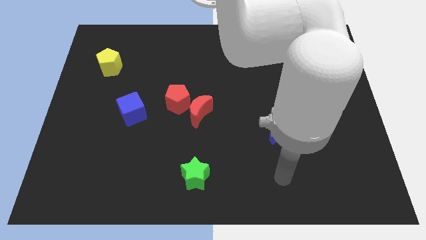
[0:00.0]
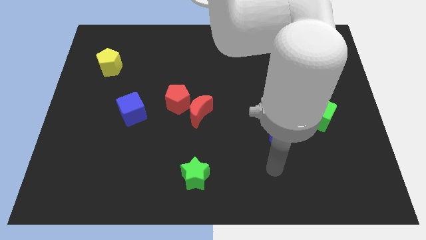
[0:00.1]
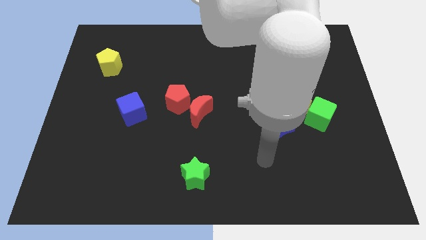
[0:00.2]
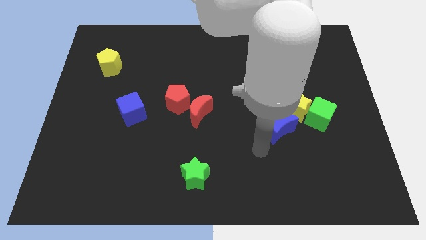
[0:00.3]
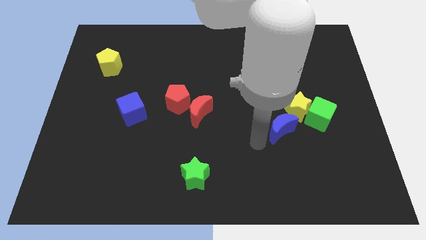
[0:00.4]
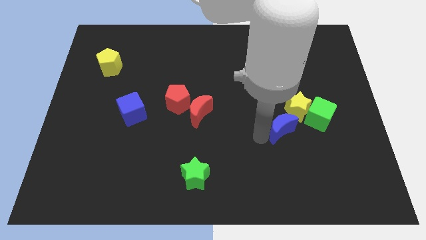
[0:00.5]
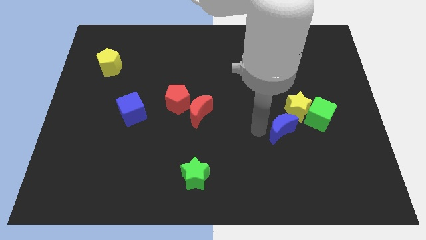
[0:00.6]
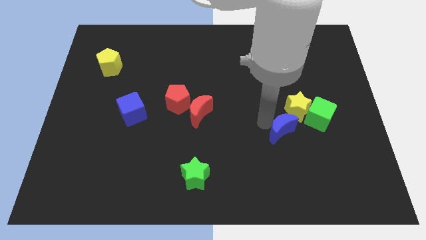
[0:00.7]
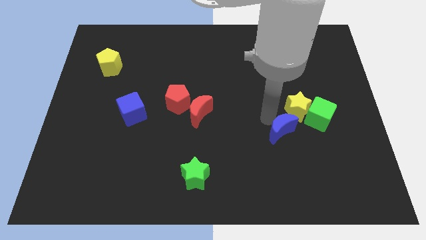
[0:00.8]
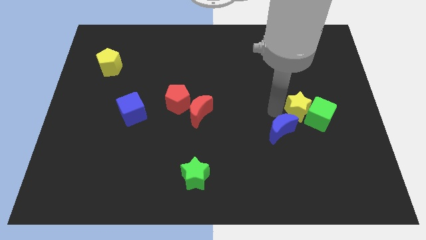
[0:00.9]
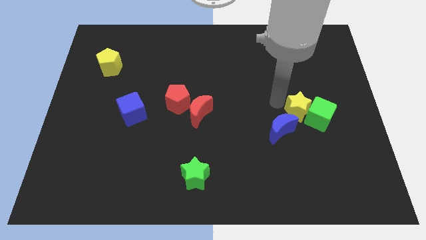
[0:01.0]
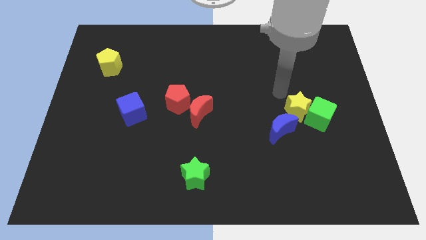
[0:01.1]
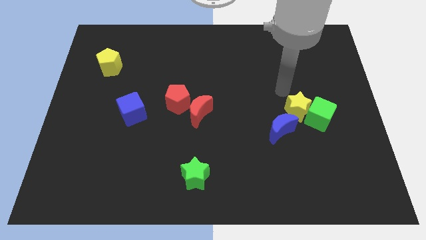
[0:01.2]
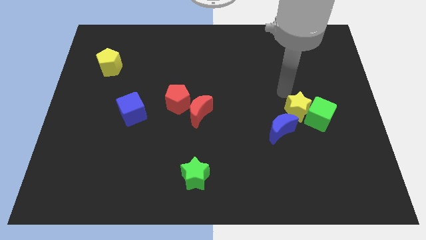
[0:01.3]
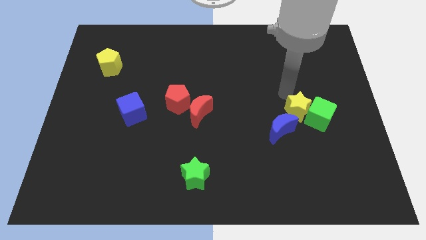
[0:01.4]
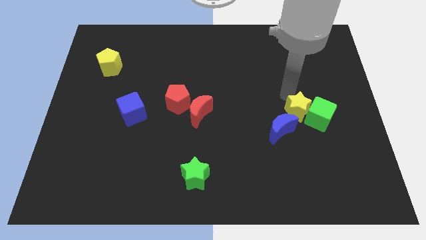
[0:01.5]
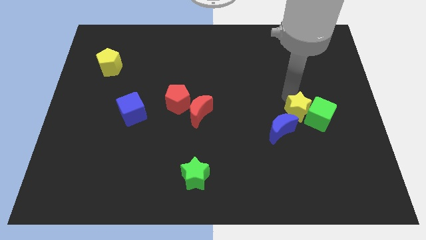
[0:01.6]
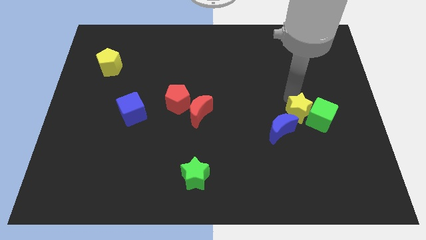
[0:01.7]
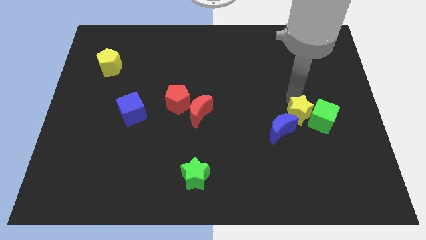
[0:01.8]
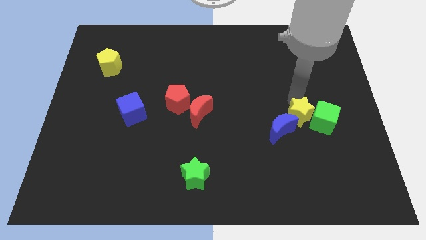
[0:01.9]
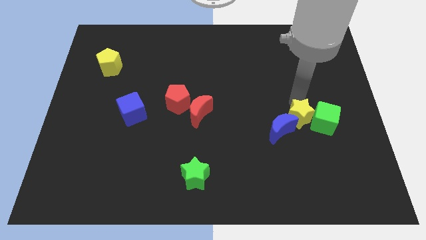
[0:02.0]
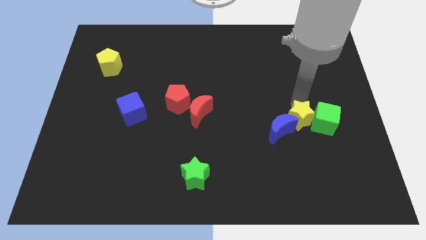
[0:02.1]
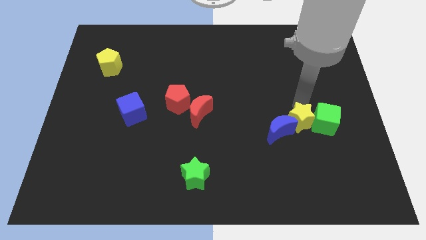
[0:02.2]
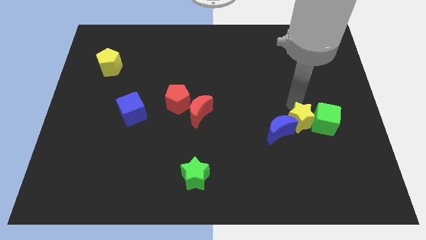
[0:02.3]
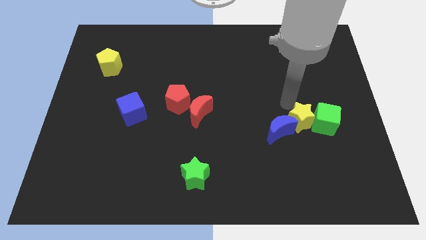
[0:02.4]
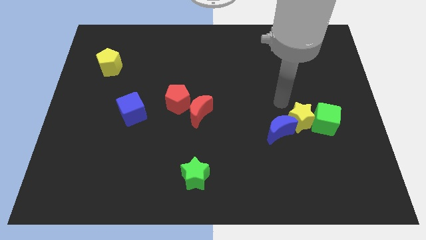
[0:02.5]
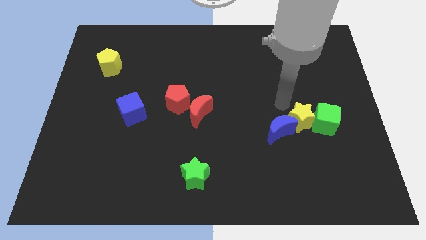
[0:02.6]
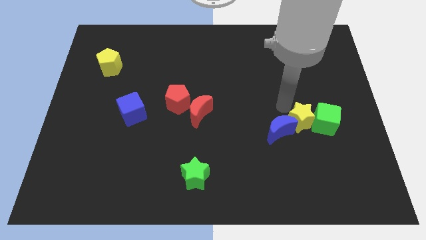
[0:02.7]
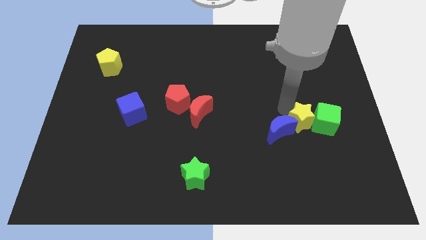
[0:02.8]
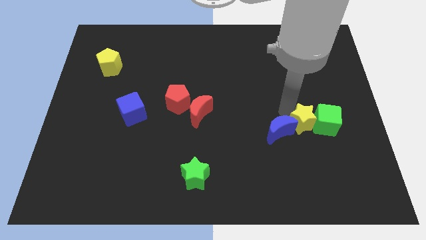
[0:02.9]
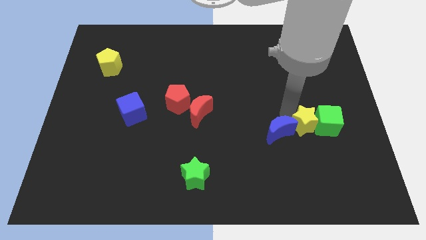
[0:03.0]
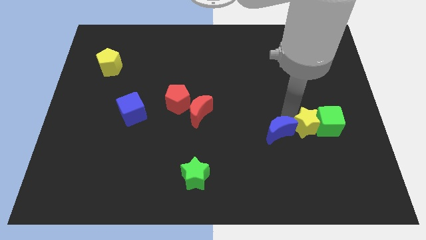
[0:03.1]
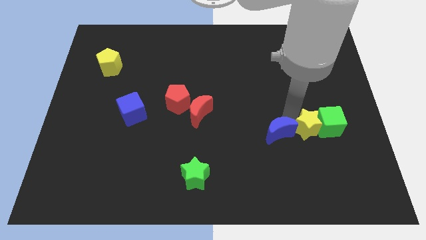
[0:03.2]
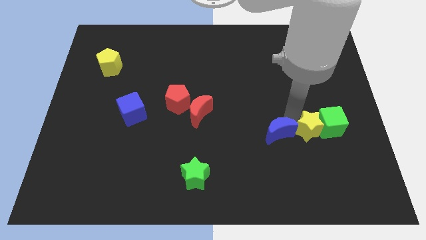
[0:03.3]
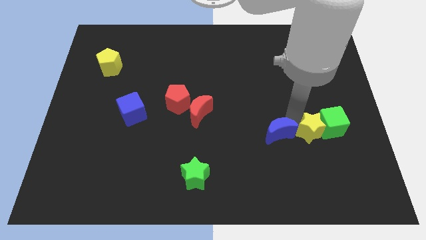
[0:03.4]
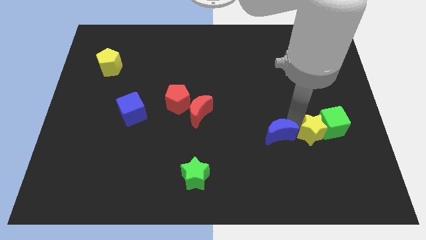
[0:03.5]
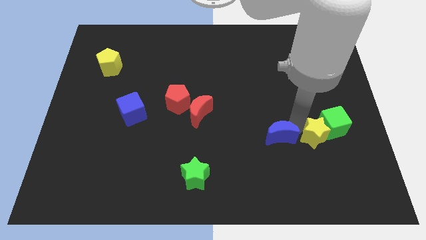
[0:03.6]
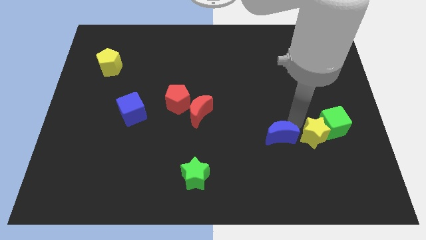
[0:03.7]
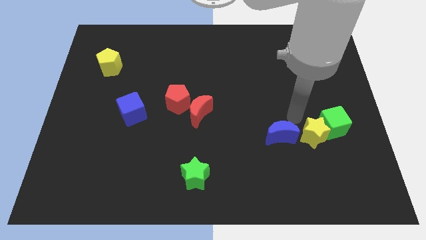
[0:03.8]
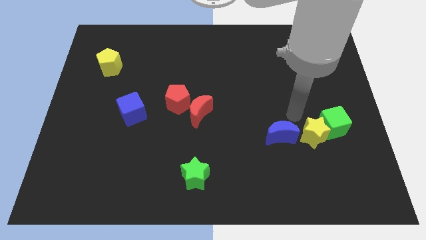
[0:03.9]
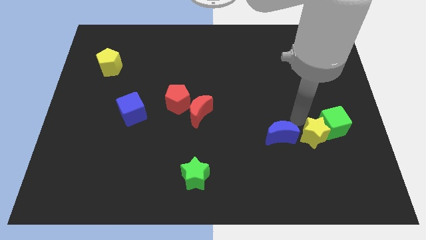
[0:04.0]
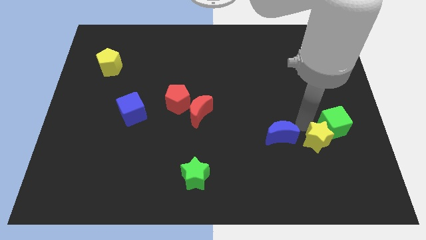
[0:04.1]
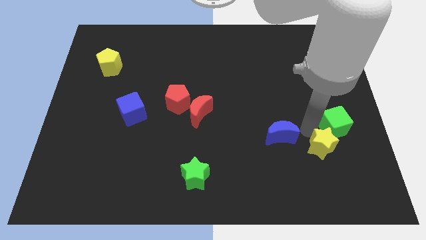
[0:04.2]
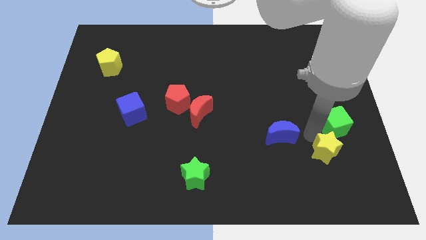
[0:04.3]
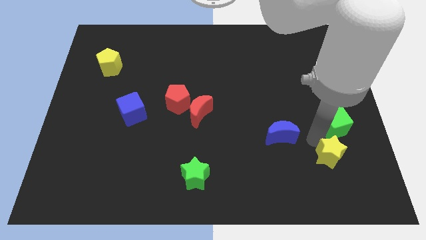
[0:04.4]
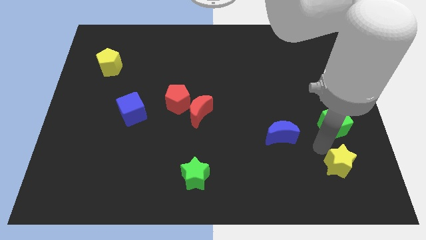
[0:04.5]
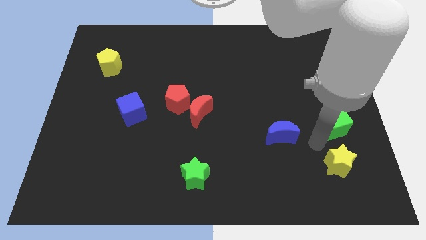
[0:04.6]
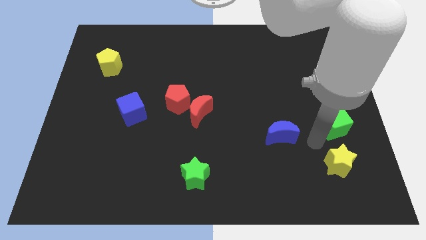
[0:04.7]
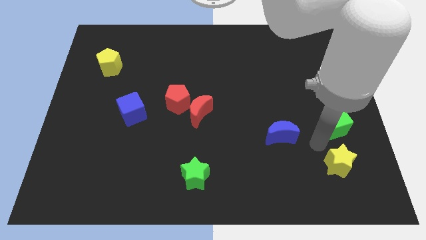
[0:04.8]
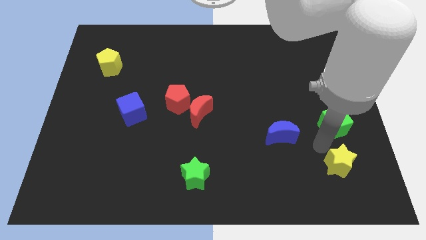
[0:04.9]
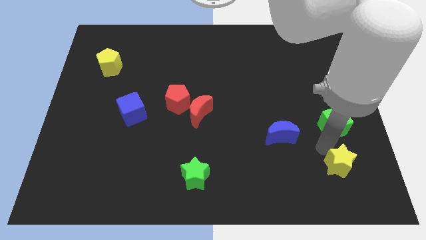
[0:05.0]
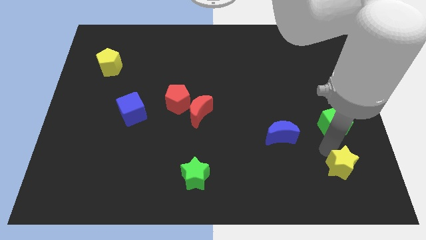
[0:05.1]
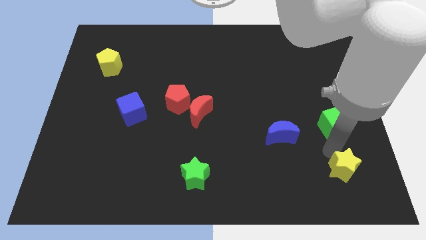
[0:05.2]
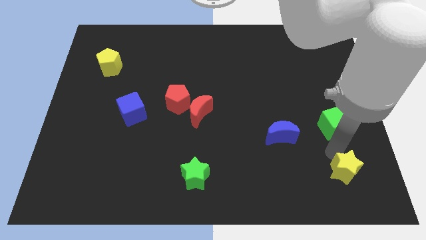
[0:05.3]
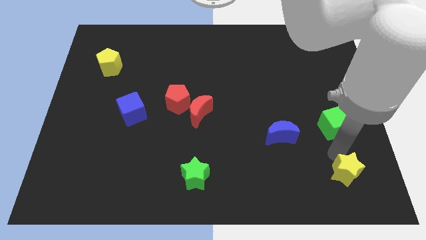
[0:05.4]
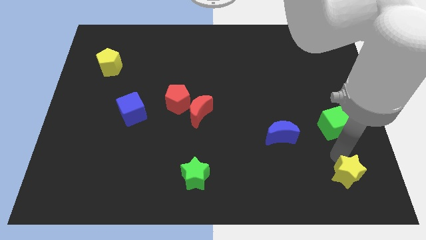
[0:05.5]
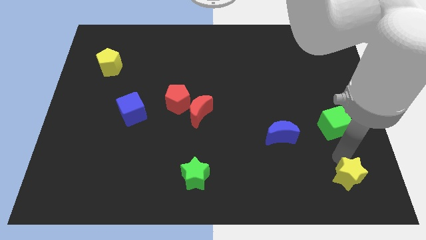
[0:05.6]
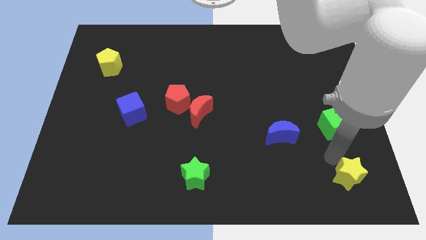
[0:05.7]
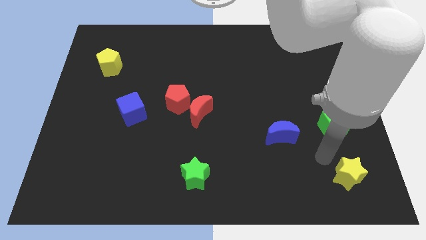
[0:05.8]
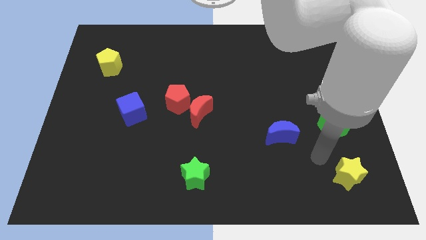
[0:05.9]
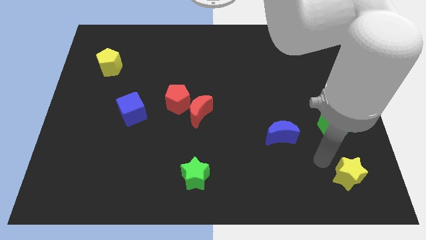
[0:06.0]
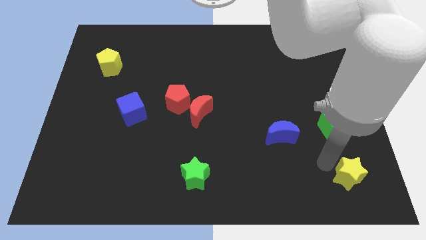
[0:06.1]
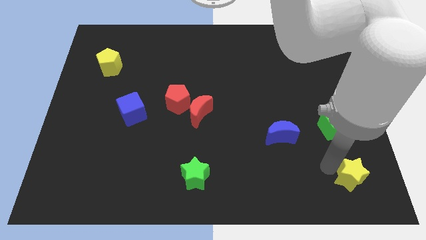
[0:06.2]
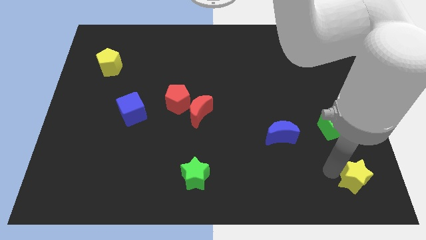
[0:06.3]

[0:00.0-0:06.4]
put the yellow star to the bottom right
